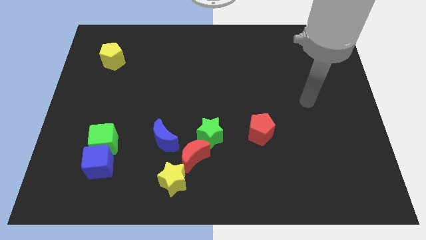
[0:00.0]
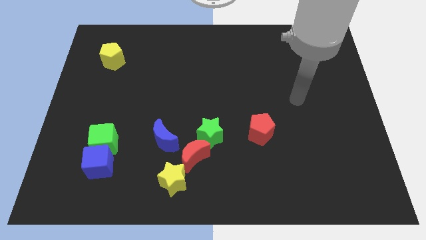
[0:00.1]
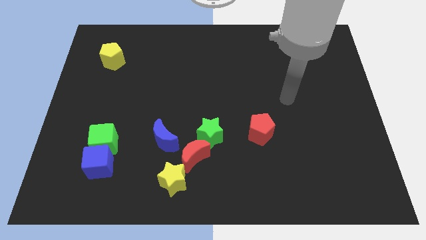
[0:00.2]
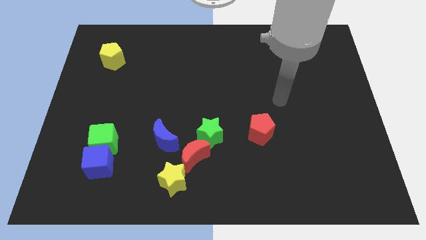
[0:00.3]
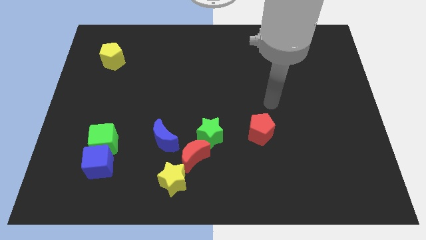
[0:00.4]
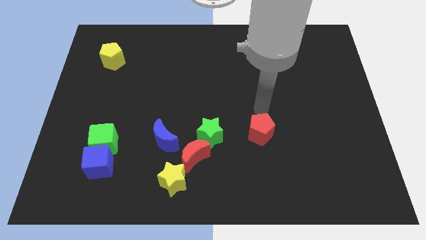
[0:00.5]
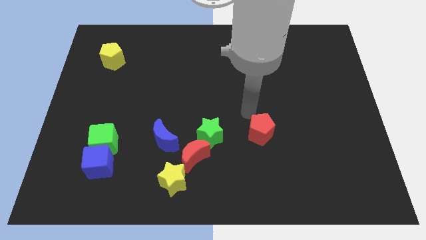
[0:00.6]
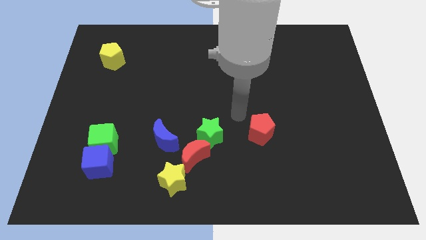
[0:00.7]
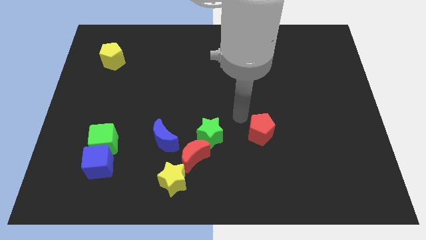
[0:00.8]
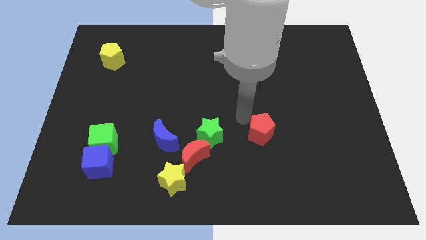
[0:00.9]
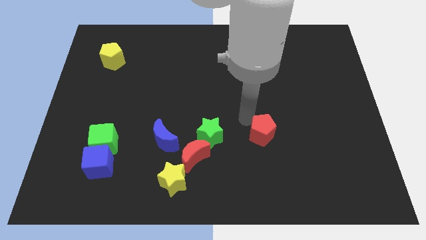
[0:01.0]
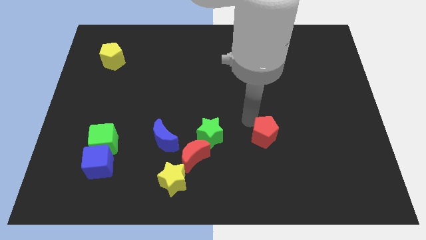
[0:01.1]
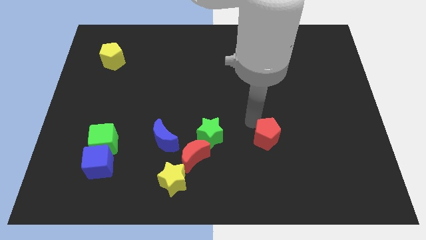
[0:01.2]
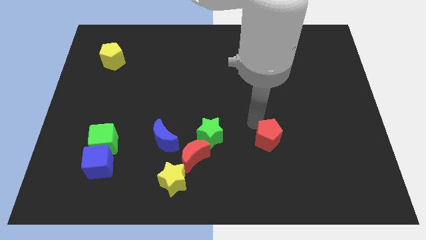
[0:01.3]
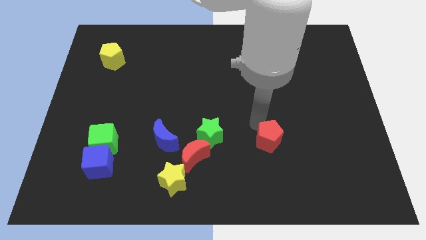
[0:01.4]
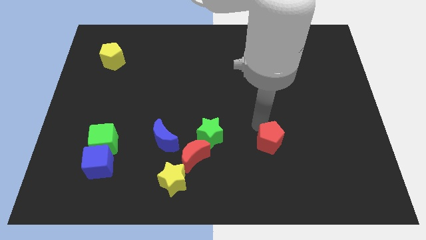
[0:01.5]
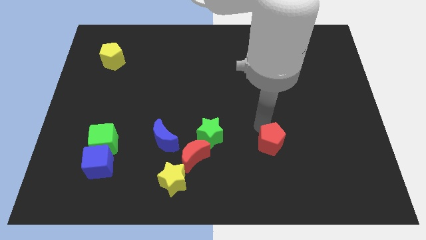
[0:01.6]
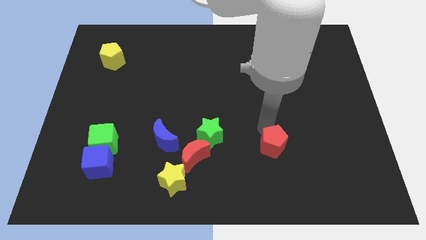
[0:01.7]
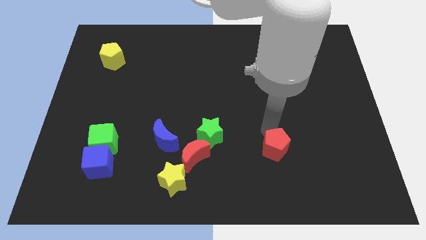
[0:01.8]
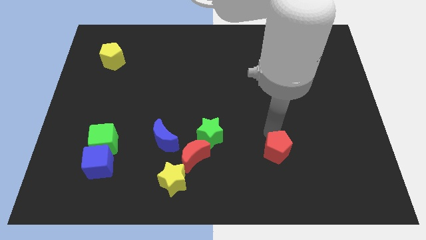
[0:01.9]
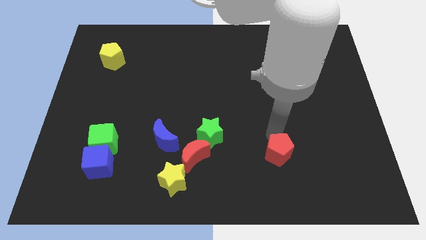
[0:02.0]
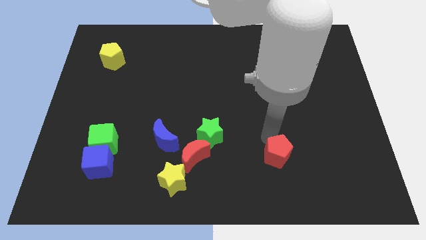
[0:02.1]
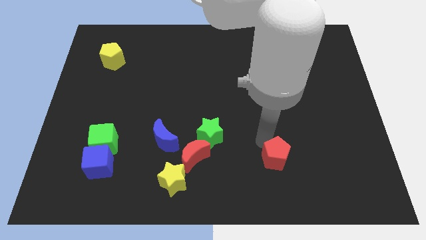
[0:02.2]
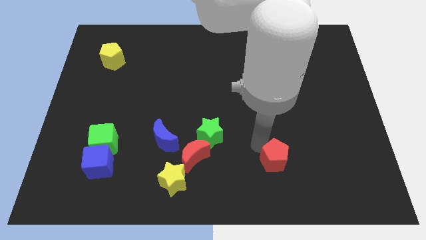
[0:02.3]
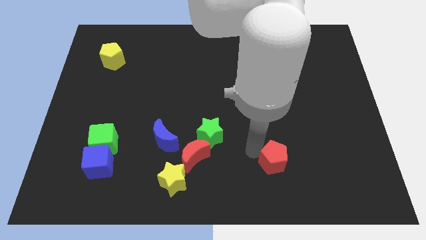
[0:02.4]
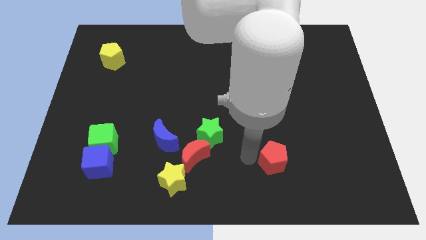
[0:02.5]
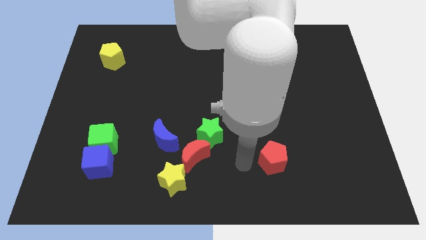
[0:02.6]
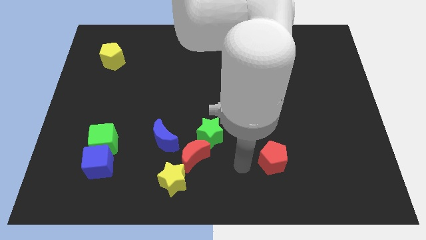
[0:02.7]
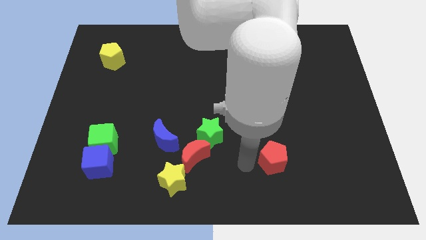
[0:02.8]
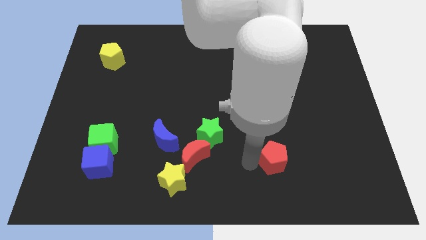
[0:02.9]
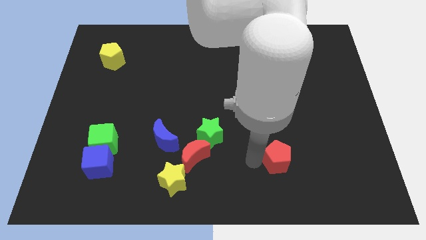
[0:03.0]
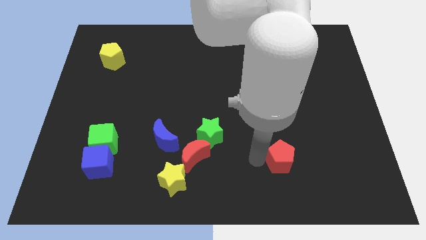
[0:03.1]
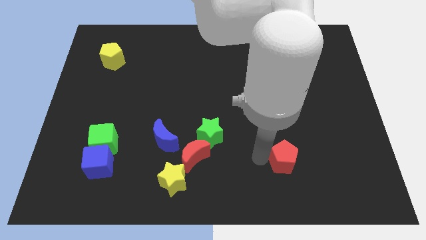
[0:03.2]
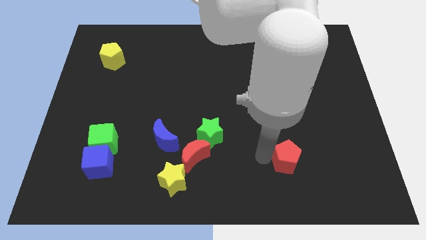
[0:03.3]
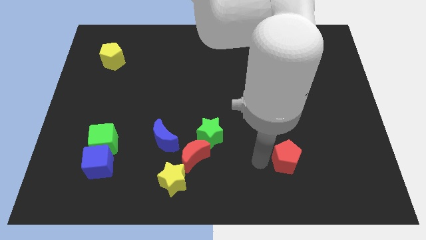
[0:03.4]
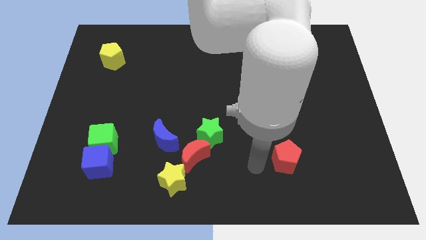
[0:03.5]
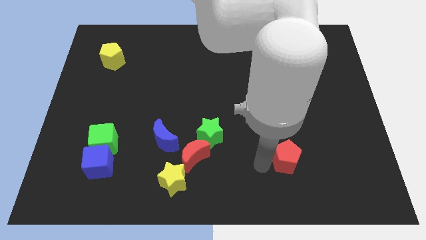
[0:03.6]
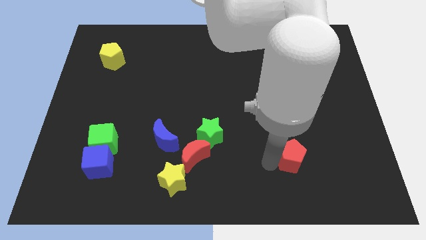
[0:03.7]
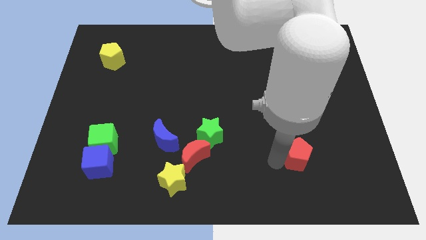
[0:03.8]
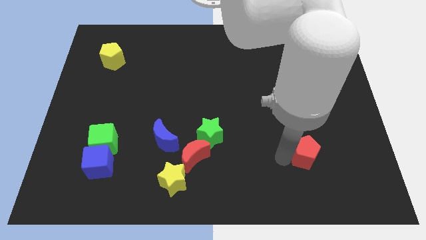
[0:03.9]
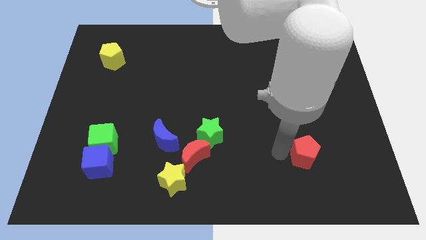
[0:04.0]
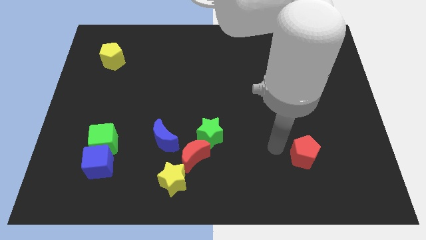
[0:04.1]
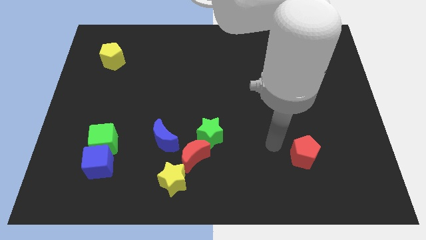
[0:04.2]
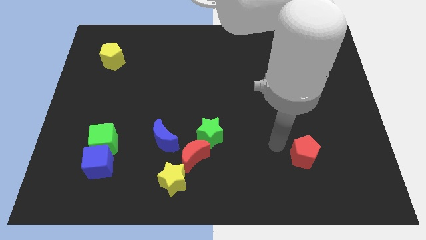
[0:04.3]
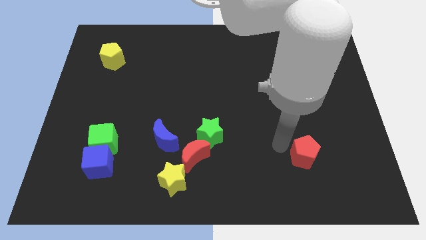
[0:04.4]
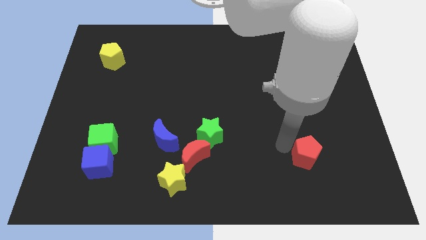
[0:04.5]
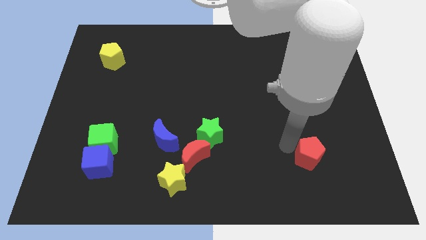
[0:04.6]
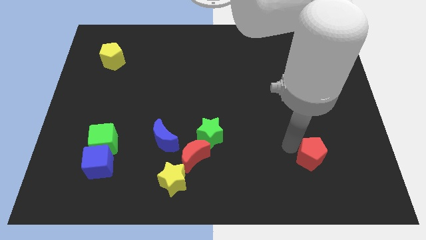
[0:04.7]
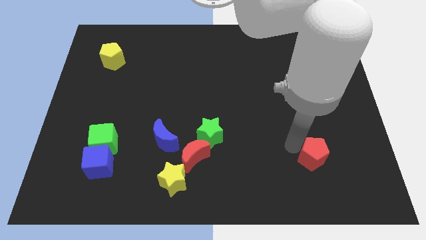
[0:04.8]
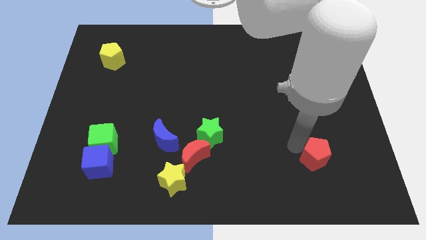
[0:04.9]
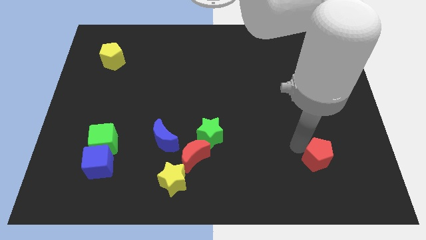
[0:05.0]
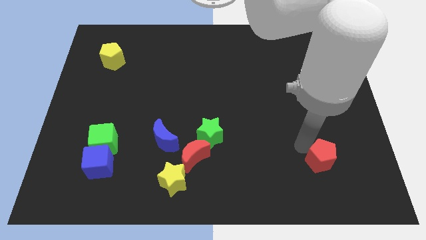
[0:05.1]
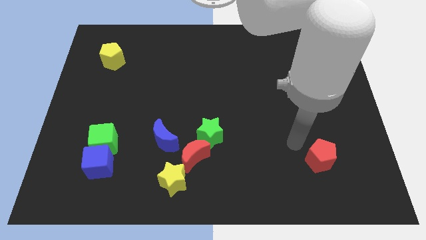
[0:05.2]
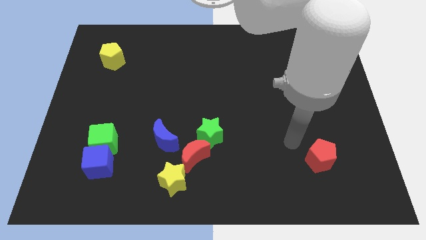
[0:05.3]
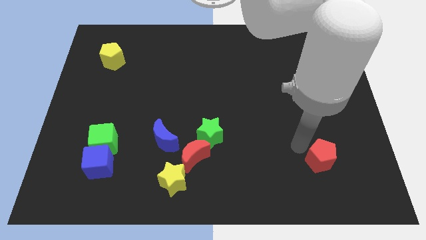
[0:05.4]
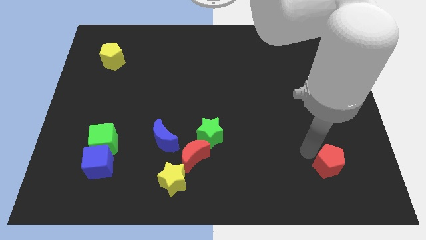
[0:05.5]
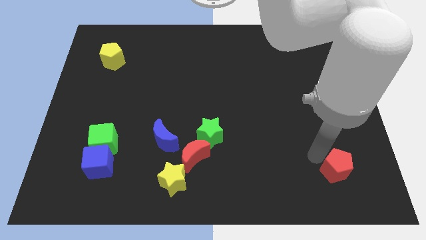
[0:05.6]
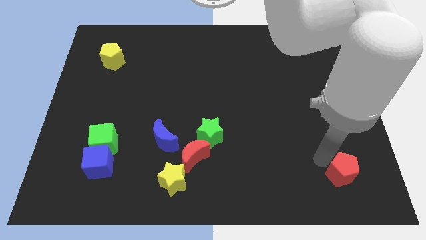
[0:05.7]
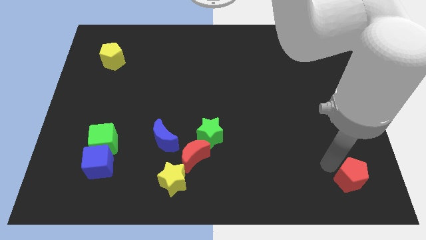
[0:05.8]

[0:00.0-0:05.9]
put the red pentagon to the bottom right corner

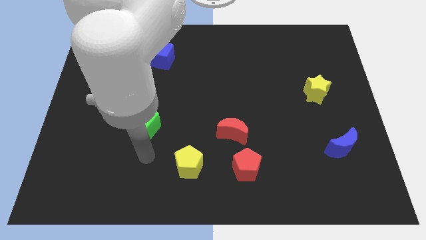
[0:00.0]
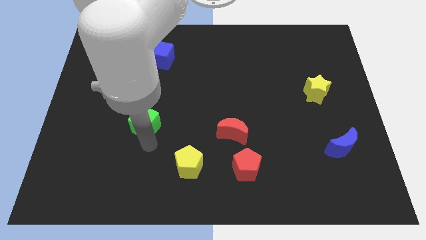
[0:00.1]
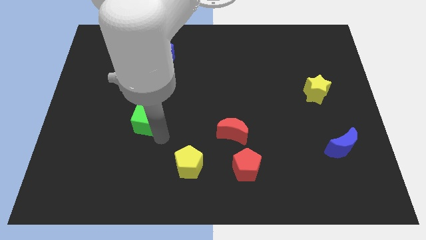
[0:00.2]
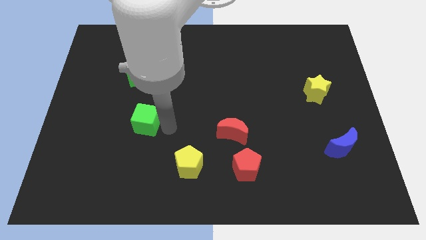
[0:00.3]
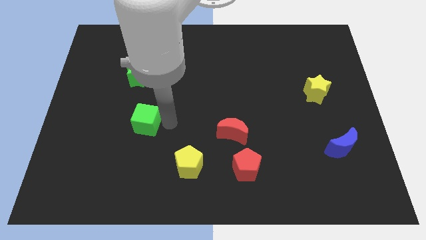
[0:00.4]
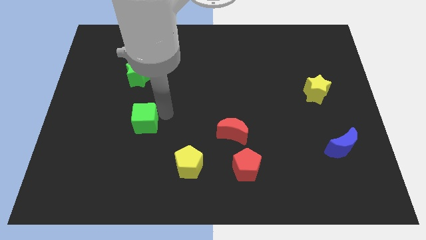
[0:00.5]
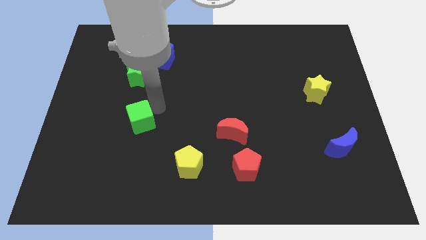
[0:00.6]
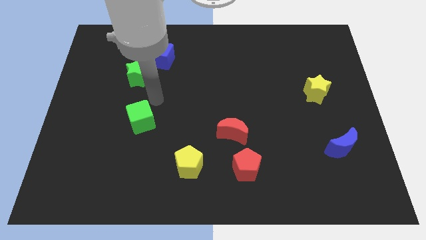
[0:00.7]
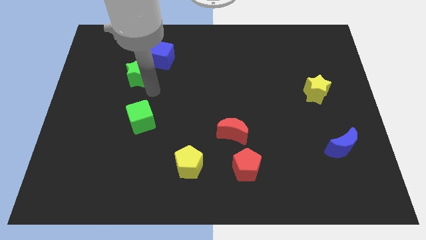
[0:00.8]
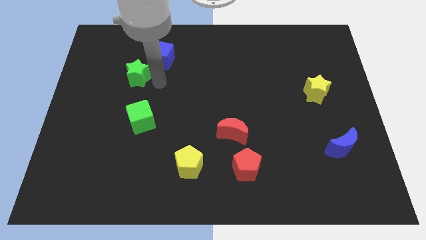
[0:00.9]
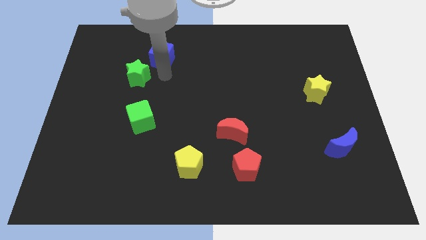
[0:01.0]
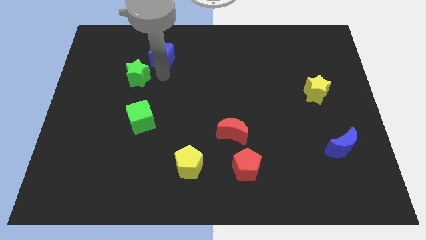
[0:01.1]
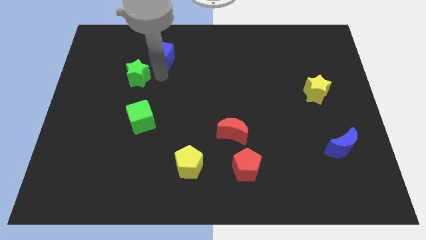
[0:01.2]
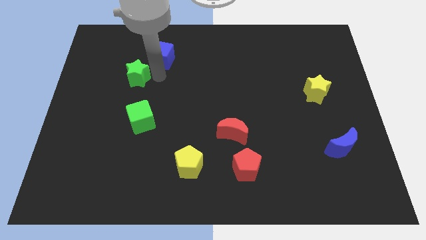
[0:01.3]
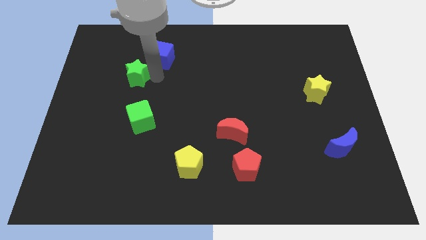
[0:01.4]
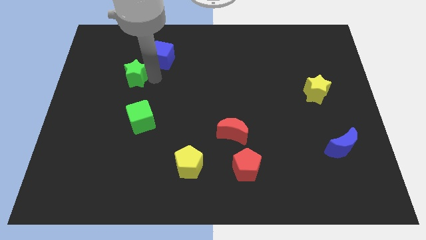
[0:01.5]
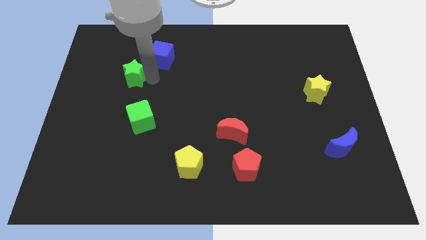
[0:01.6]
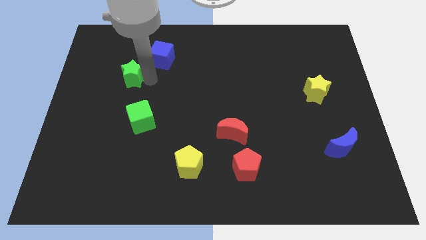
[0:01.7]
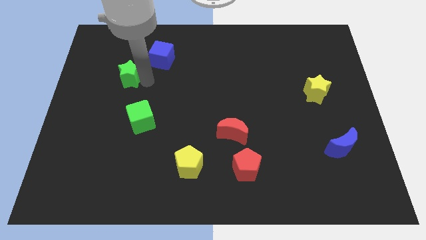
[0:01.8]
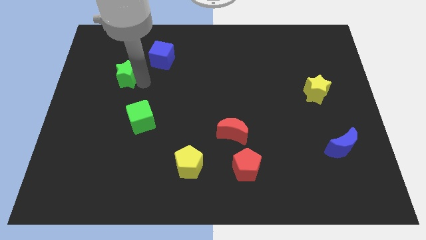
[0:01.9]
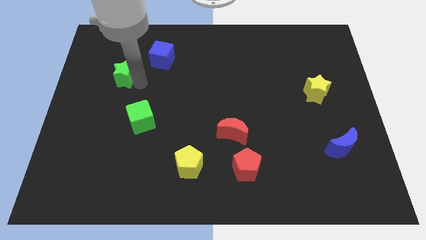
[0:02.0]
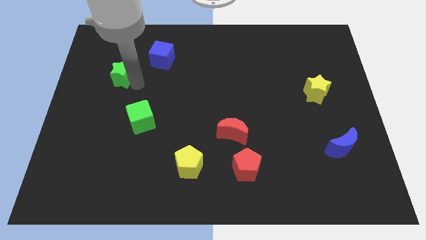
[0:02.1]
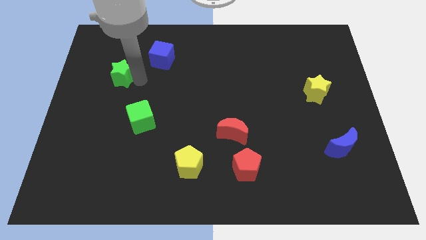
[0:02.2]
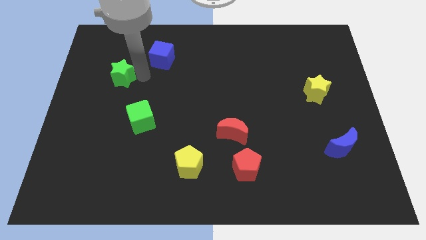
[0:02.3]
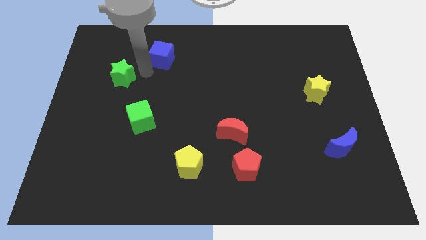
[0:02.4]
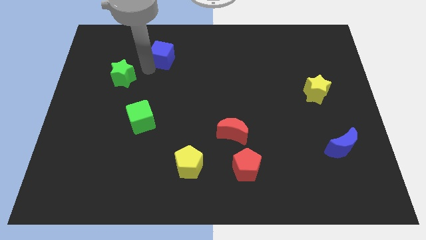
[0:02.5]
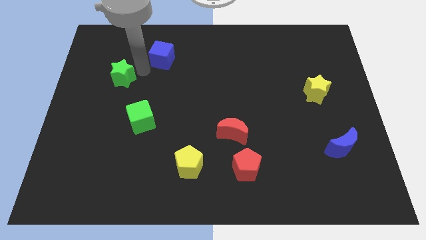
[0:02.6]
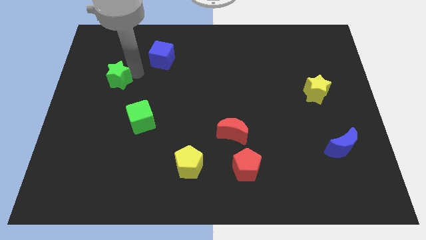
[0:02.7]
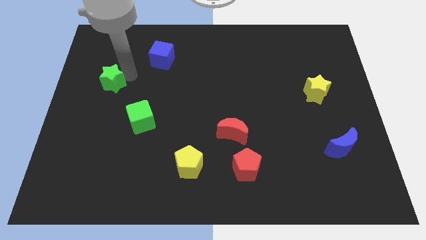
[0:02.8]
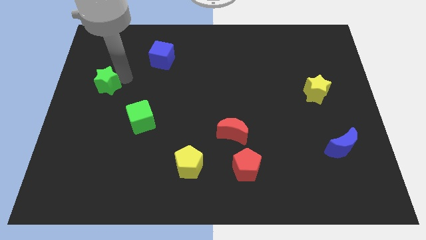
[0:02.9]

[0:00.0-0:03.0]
put the green star to the left side
